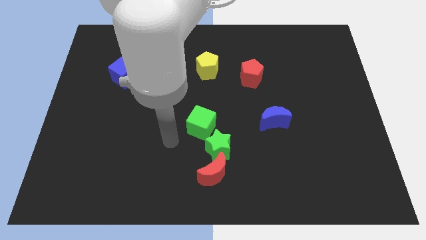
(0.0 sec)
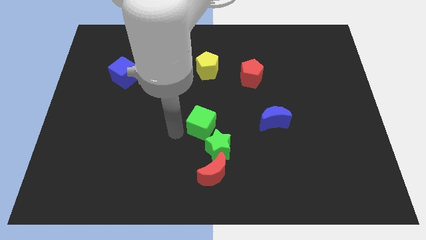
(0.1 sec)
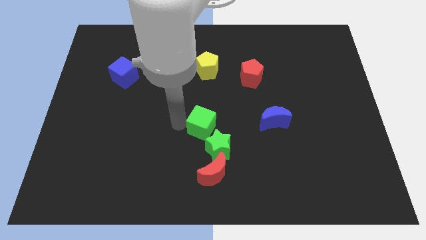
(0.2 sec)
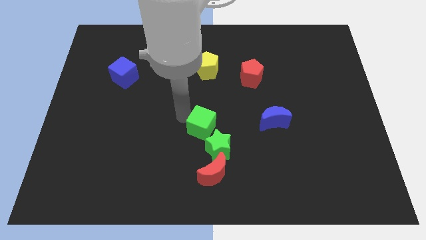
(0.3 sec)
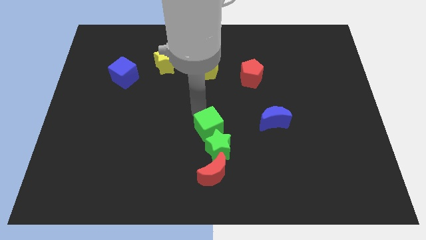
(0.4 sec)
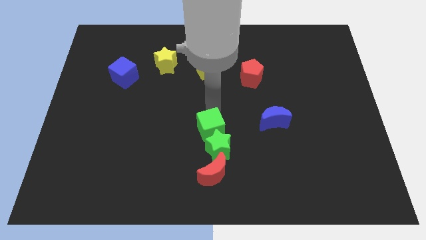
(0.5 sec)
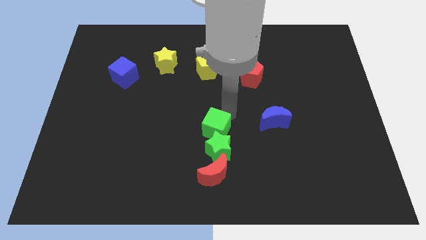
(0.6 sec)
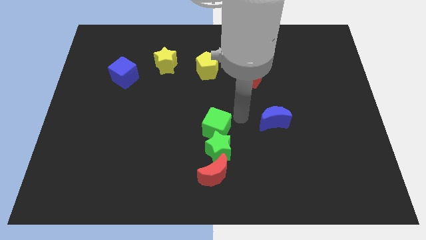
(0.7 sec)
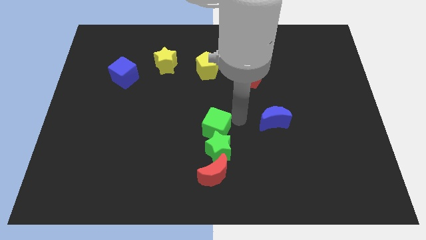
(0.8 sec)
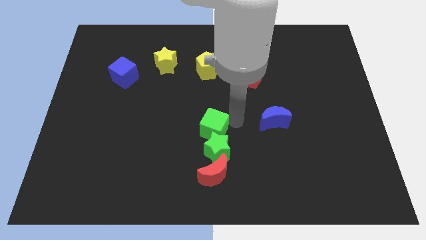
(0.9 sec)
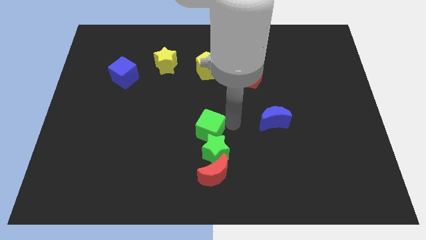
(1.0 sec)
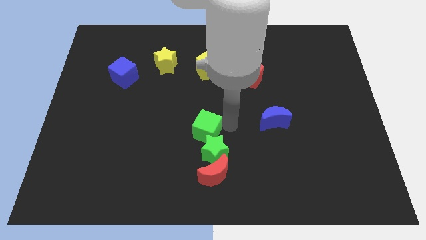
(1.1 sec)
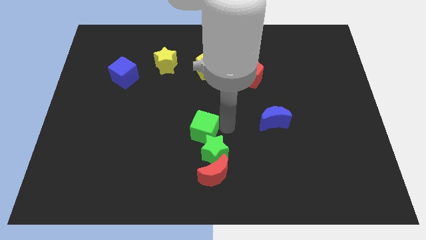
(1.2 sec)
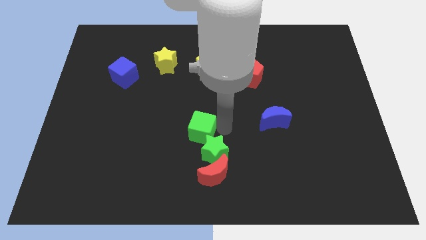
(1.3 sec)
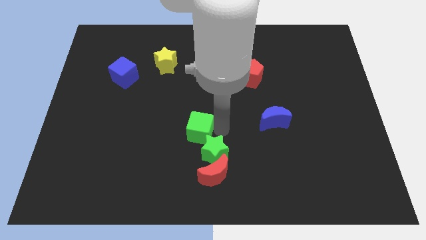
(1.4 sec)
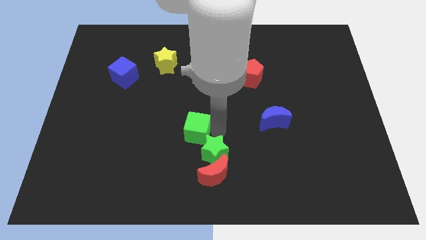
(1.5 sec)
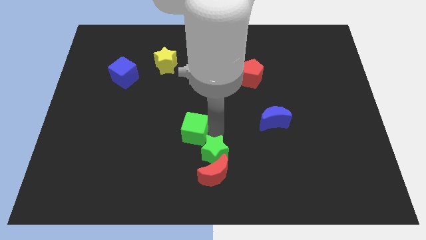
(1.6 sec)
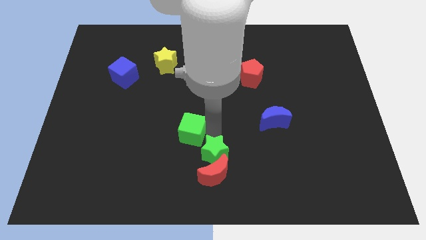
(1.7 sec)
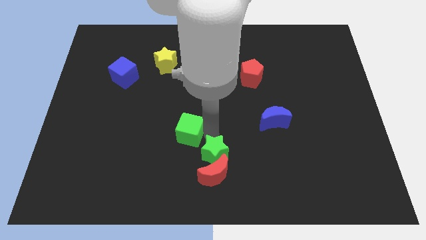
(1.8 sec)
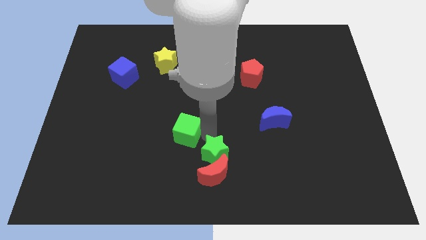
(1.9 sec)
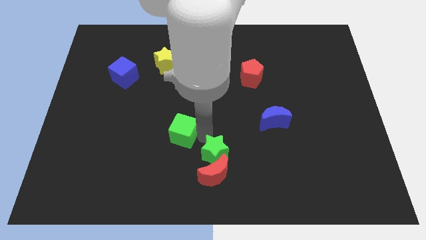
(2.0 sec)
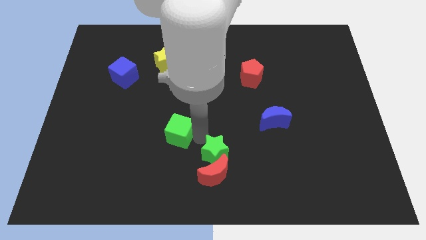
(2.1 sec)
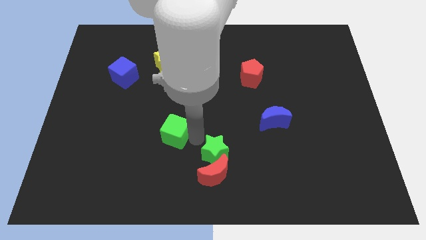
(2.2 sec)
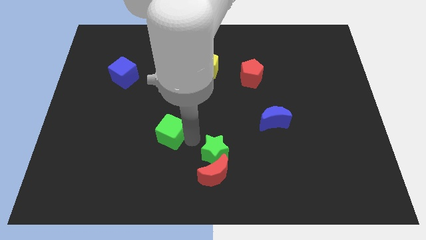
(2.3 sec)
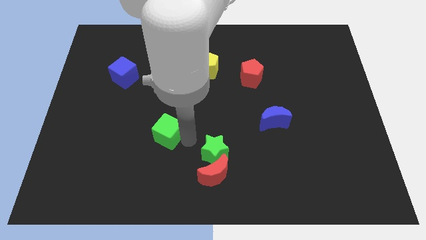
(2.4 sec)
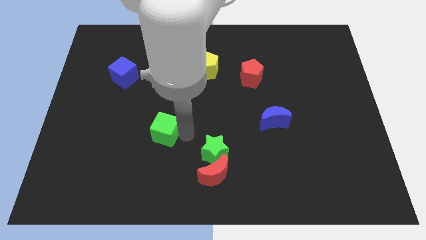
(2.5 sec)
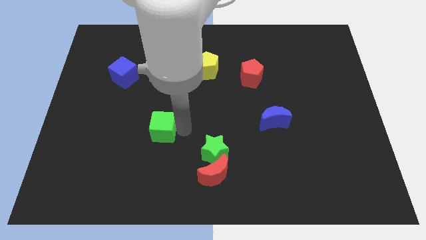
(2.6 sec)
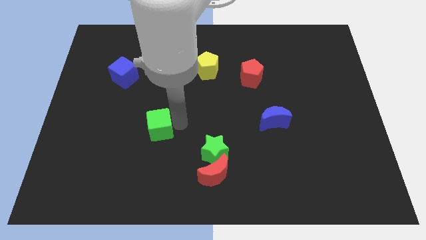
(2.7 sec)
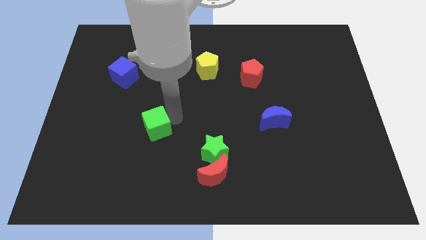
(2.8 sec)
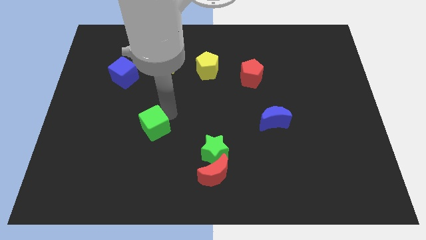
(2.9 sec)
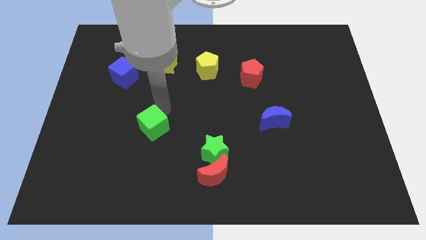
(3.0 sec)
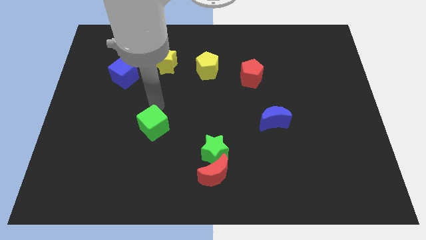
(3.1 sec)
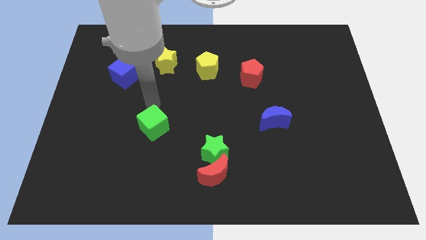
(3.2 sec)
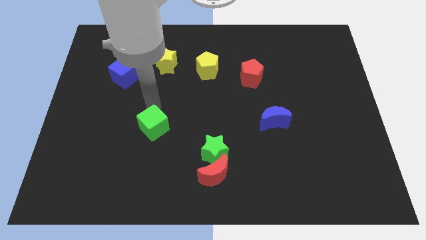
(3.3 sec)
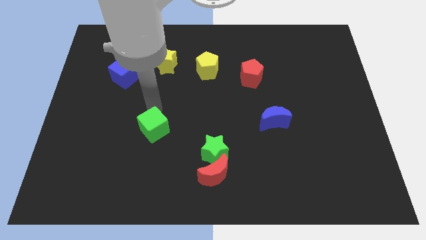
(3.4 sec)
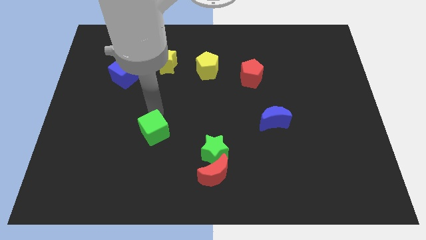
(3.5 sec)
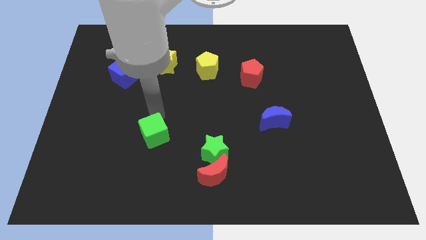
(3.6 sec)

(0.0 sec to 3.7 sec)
slightly push the green cube down and left diagonally

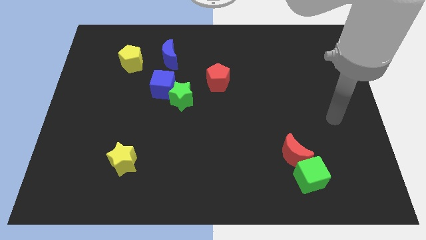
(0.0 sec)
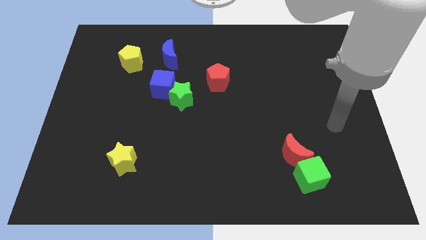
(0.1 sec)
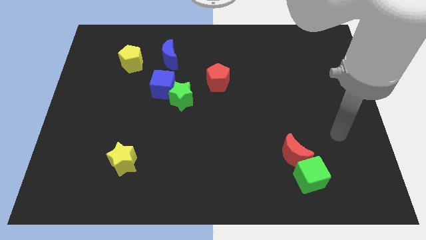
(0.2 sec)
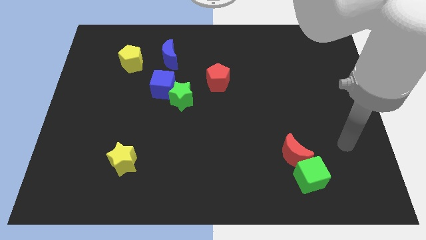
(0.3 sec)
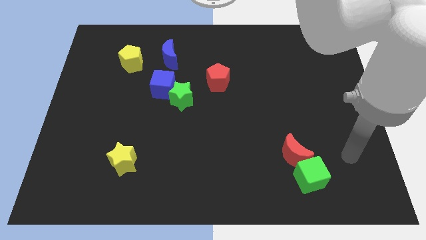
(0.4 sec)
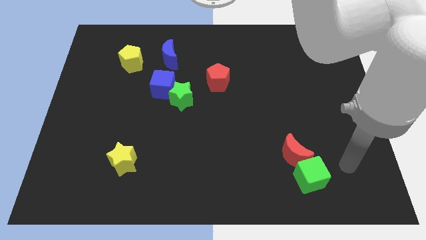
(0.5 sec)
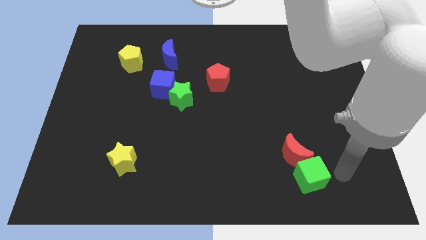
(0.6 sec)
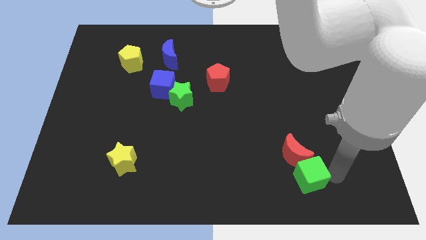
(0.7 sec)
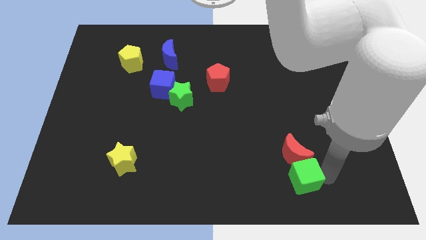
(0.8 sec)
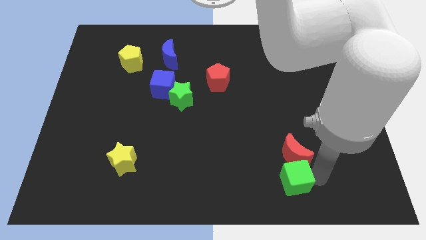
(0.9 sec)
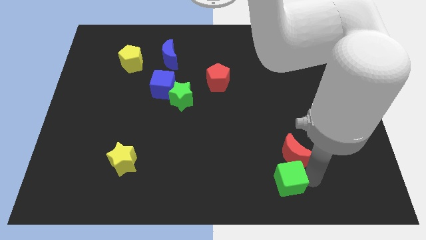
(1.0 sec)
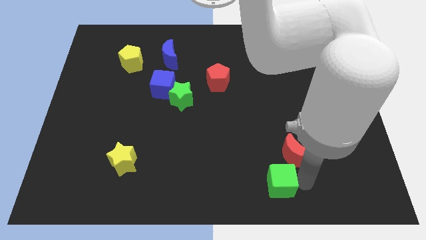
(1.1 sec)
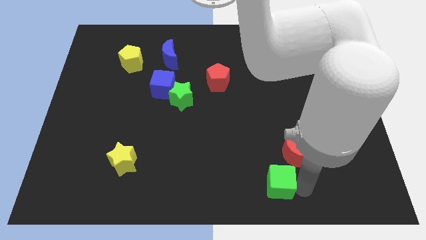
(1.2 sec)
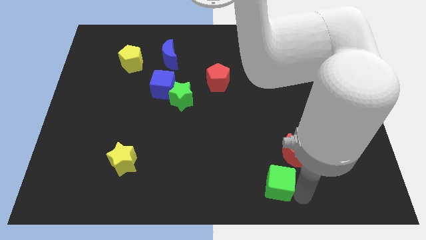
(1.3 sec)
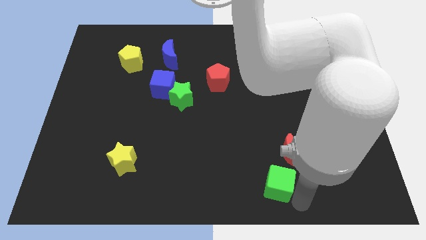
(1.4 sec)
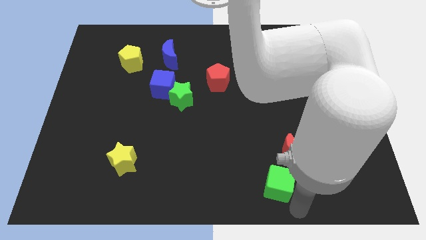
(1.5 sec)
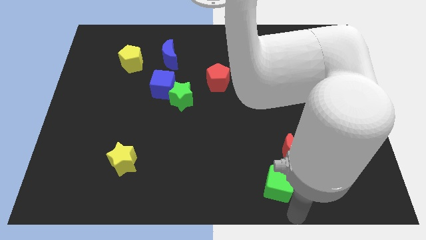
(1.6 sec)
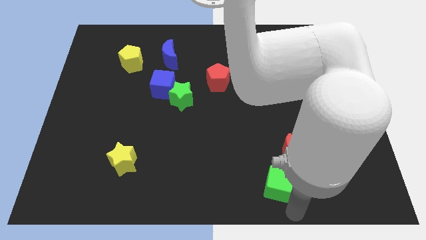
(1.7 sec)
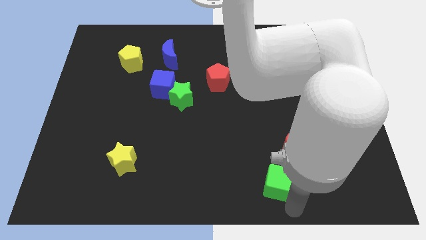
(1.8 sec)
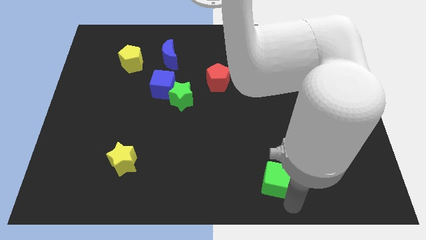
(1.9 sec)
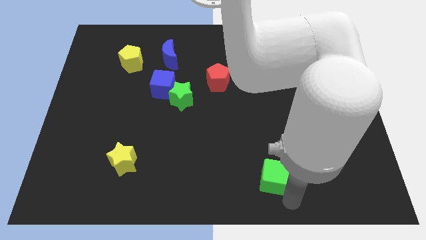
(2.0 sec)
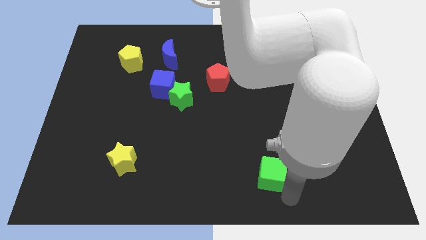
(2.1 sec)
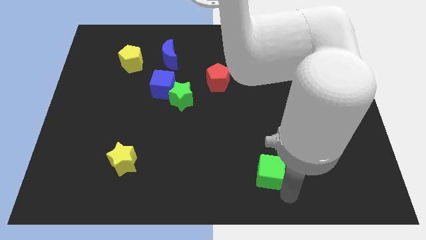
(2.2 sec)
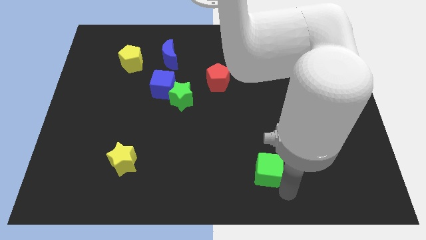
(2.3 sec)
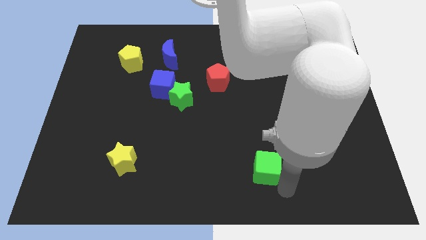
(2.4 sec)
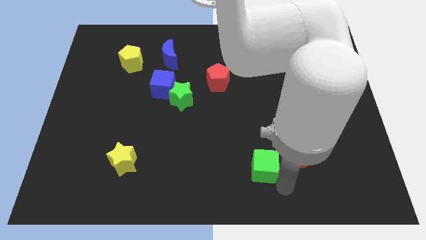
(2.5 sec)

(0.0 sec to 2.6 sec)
slightly slide the green cube up and to the left diagonally

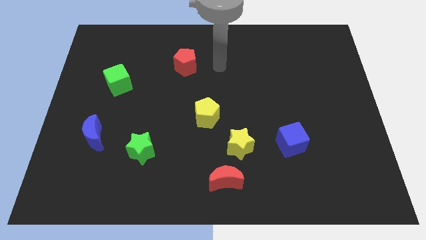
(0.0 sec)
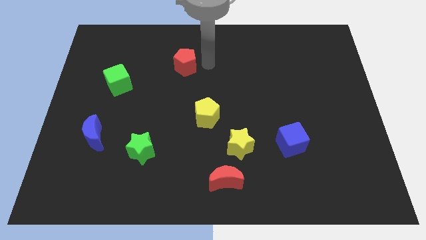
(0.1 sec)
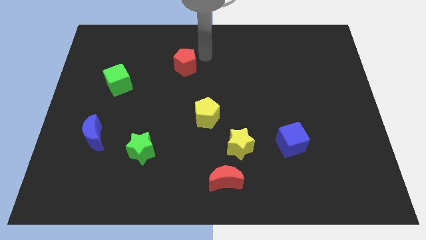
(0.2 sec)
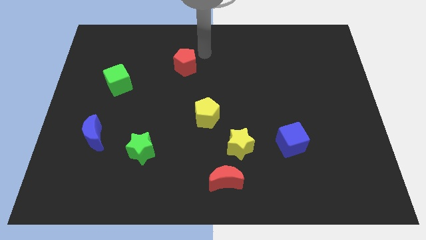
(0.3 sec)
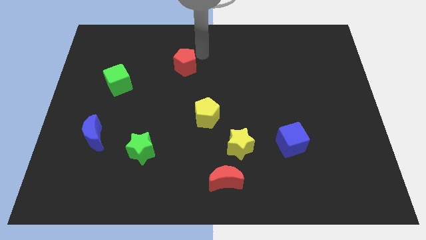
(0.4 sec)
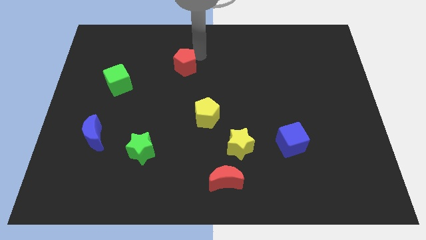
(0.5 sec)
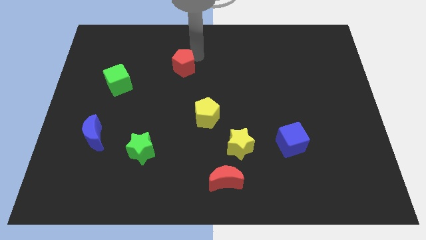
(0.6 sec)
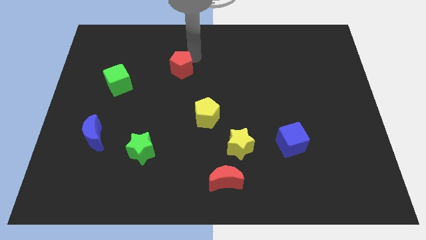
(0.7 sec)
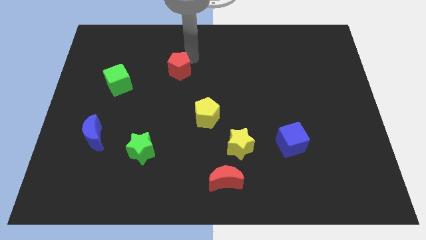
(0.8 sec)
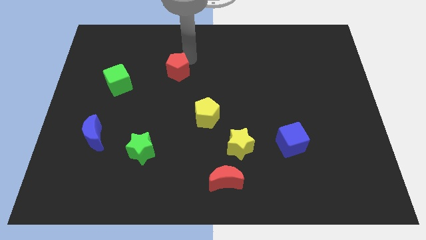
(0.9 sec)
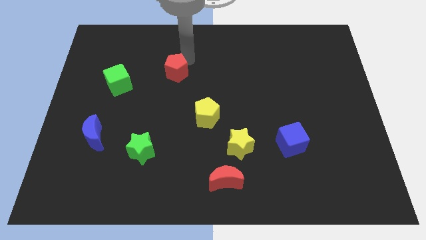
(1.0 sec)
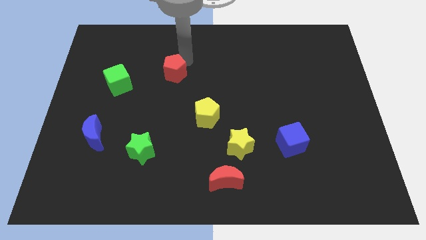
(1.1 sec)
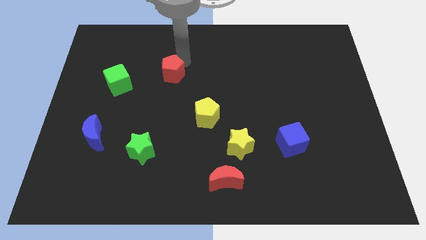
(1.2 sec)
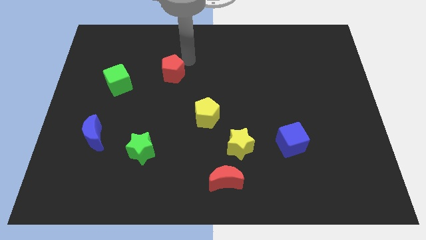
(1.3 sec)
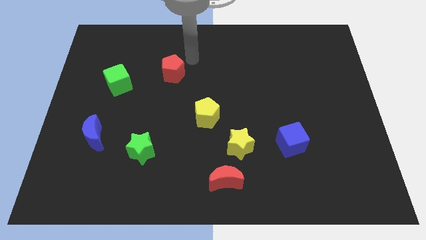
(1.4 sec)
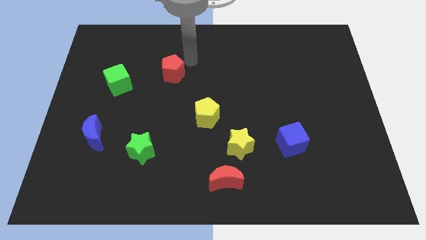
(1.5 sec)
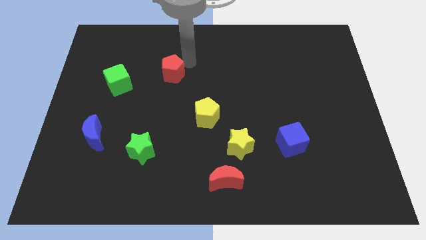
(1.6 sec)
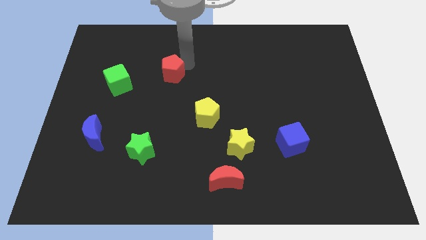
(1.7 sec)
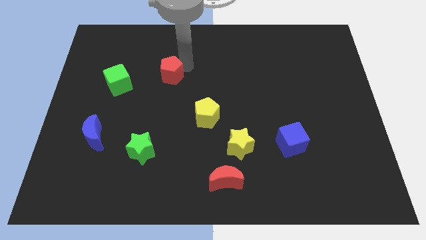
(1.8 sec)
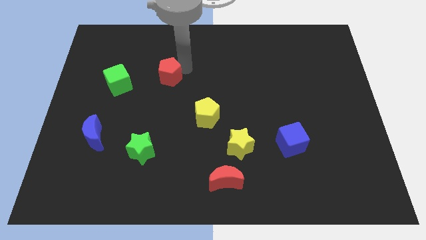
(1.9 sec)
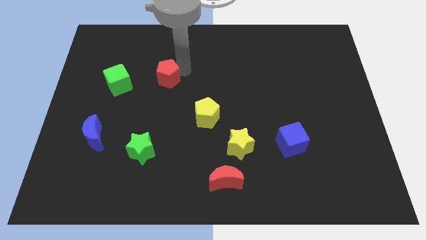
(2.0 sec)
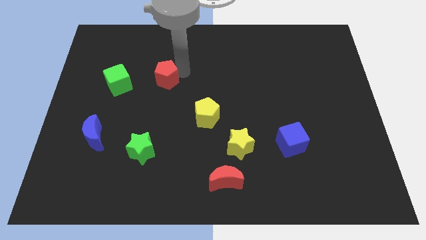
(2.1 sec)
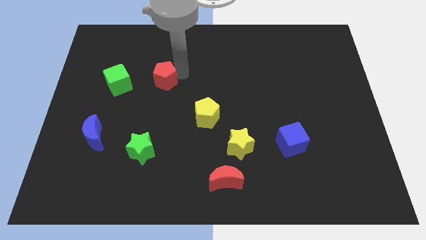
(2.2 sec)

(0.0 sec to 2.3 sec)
push the red pentagon slightly down and to the left
